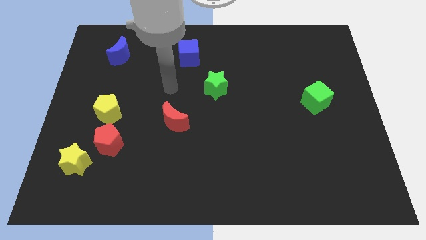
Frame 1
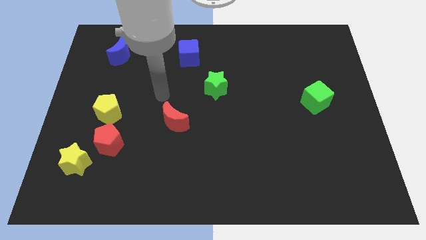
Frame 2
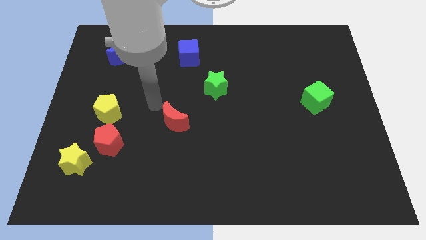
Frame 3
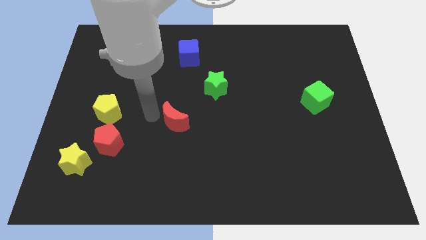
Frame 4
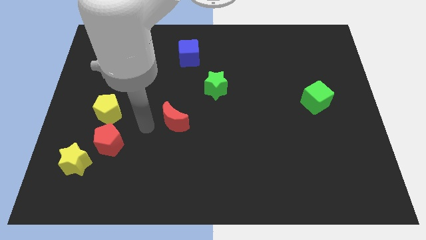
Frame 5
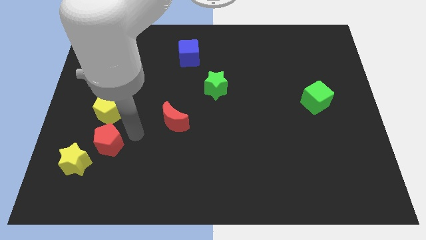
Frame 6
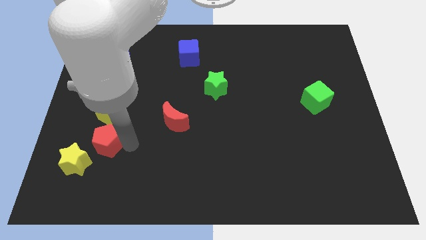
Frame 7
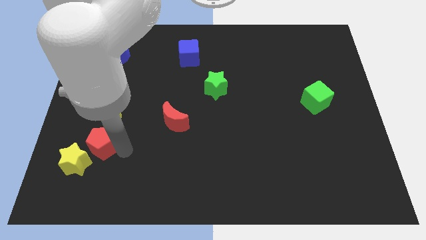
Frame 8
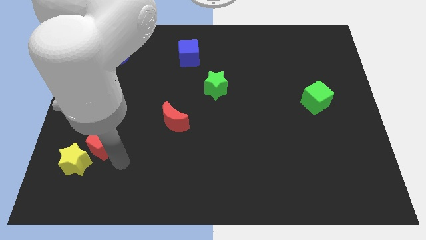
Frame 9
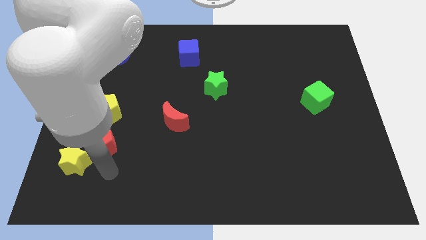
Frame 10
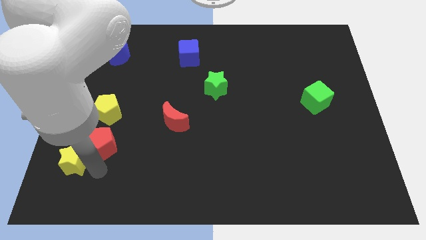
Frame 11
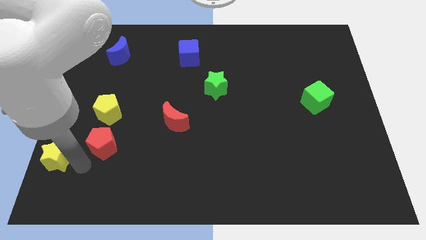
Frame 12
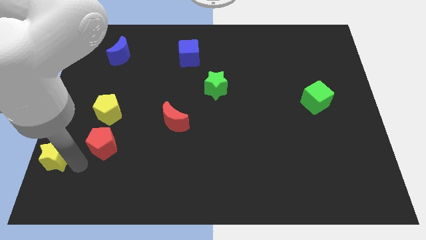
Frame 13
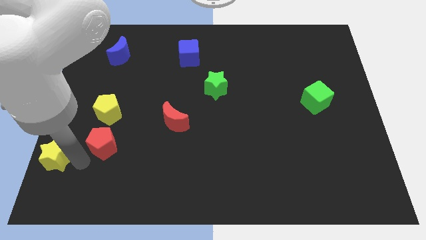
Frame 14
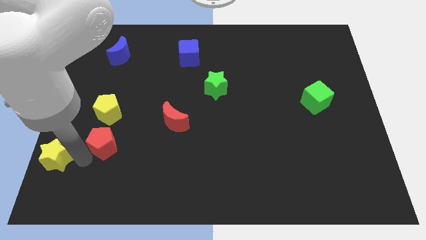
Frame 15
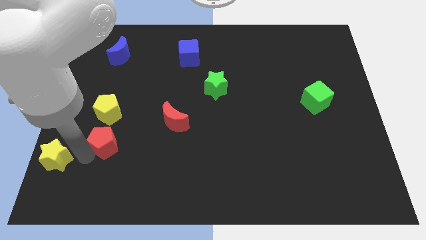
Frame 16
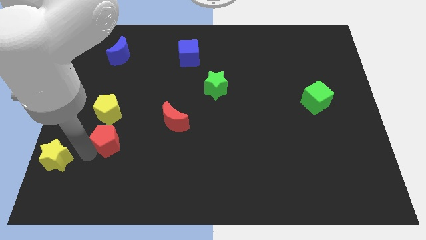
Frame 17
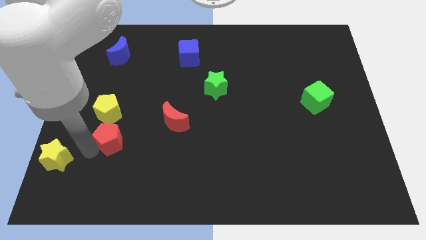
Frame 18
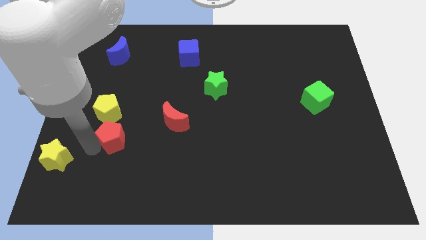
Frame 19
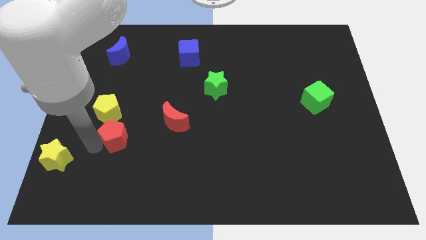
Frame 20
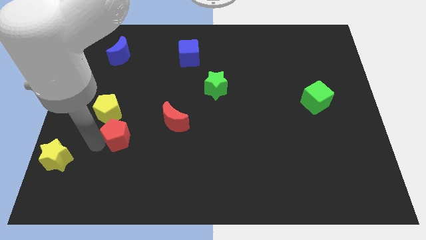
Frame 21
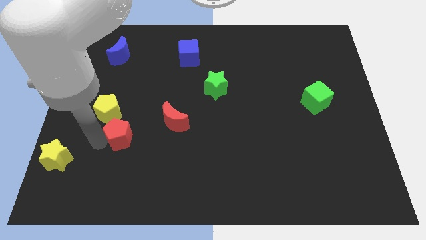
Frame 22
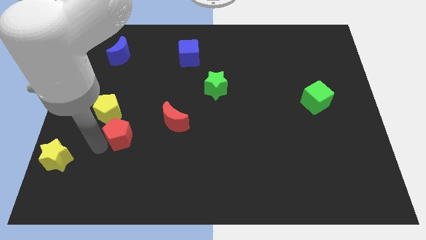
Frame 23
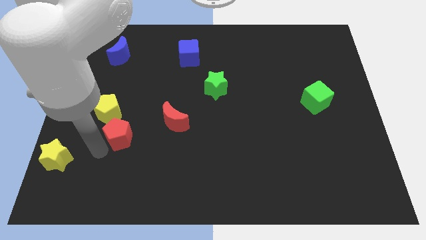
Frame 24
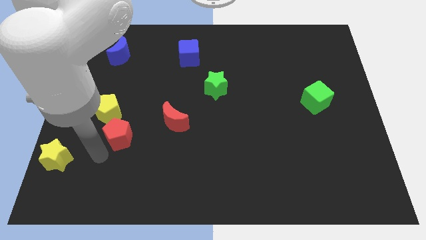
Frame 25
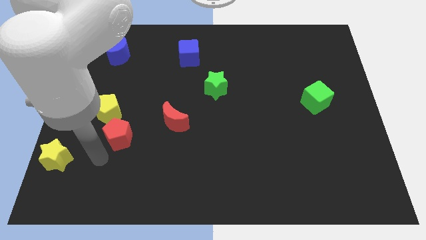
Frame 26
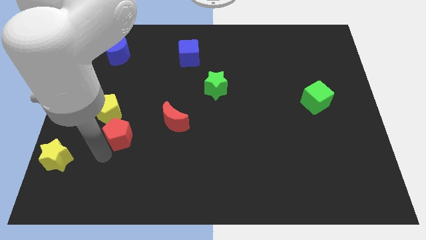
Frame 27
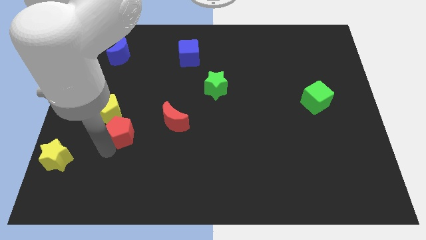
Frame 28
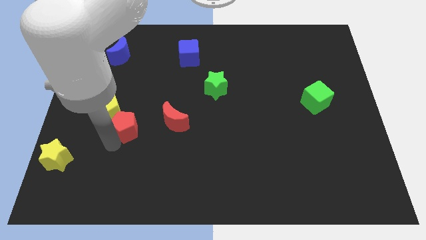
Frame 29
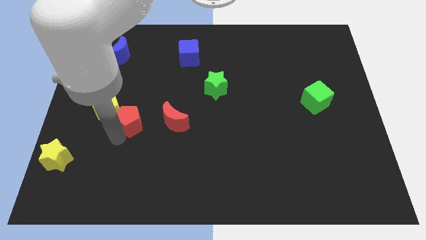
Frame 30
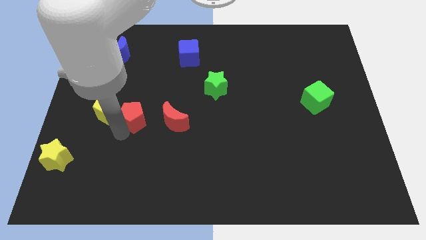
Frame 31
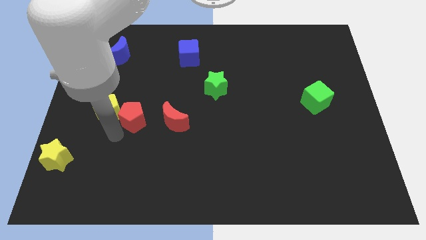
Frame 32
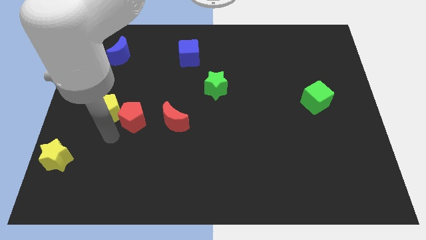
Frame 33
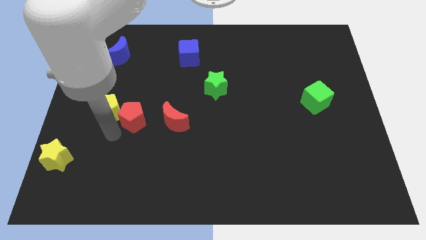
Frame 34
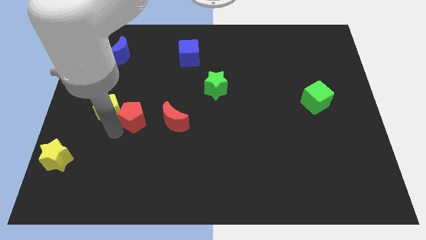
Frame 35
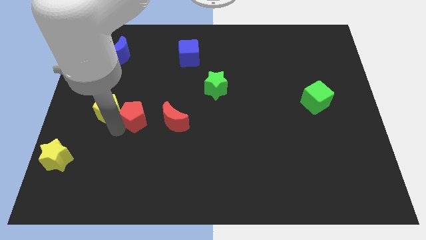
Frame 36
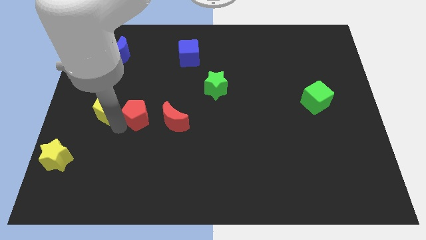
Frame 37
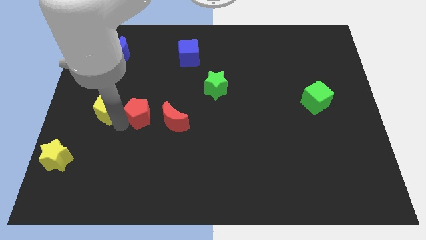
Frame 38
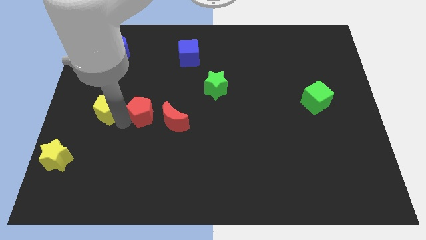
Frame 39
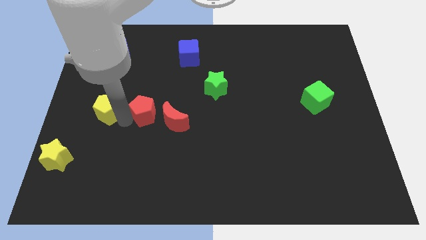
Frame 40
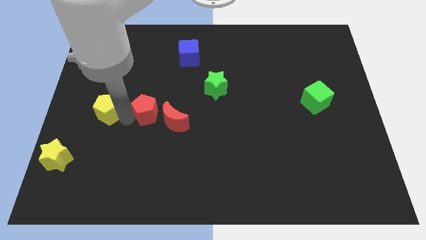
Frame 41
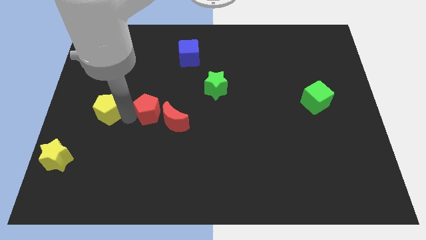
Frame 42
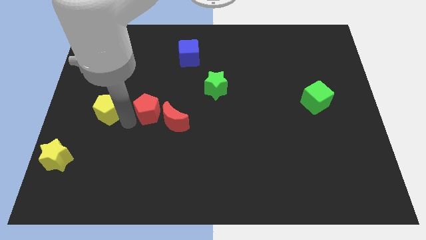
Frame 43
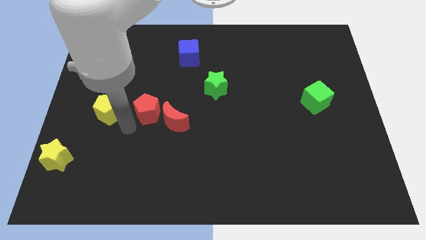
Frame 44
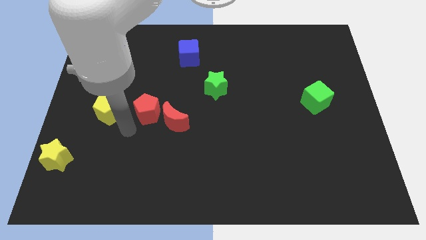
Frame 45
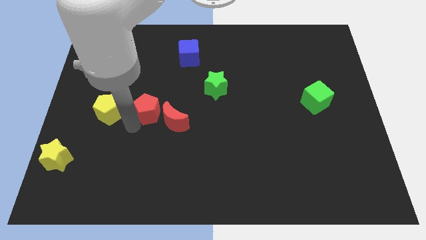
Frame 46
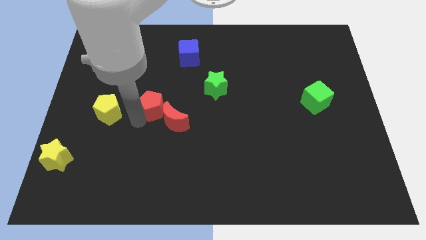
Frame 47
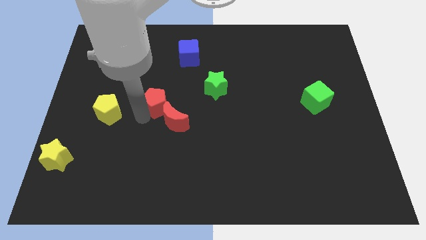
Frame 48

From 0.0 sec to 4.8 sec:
put the red pentagon to the top side of the red moon

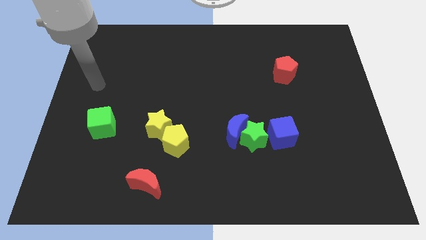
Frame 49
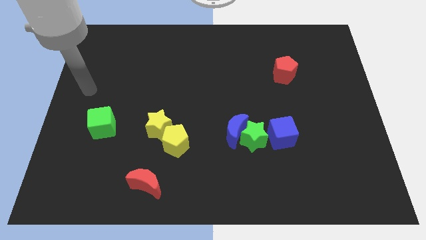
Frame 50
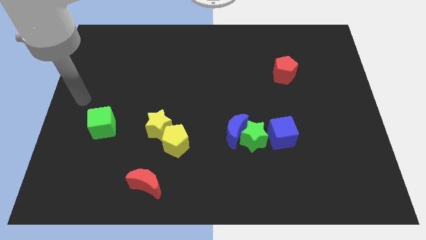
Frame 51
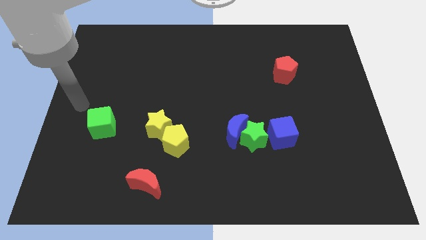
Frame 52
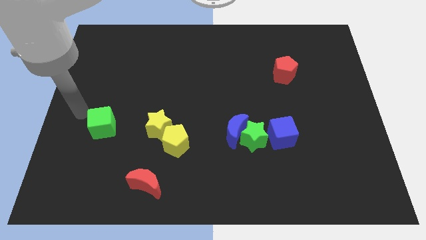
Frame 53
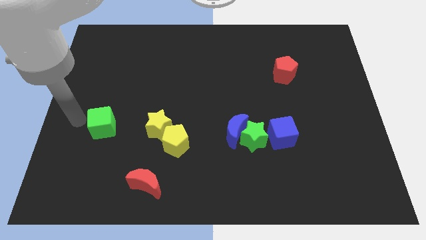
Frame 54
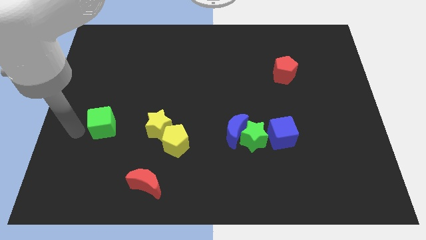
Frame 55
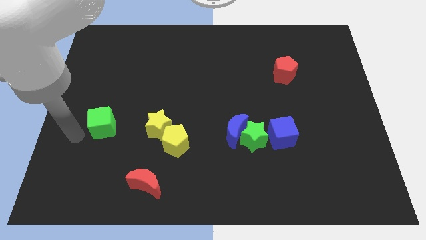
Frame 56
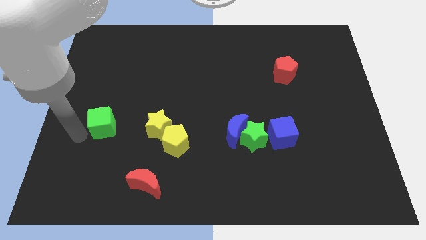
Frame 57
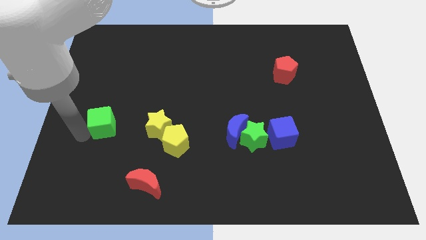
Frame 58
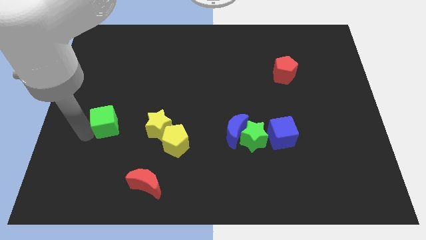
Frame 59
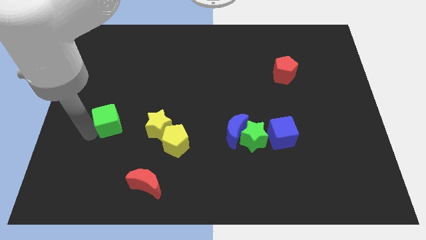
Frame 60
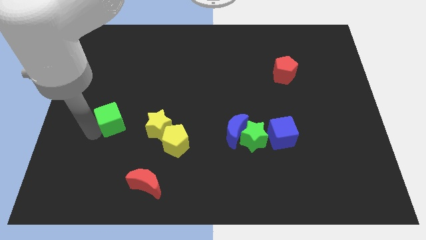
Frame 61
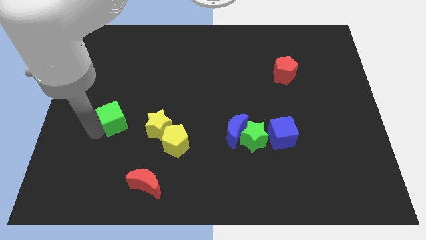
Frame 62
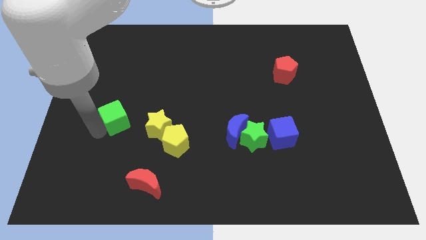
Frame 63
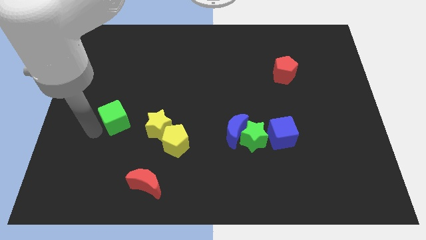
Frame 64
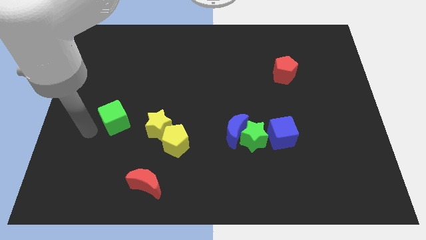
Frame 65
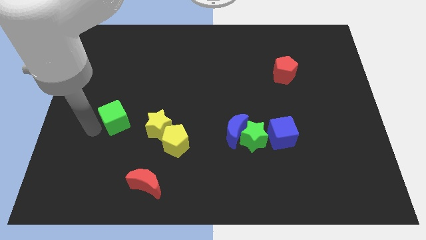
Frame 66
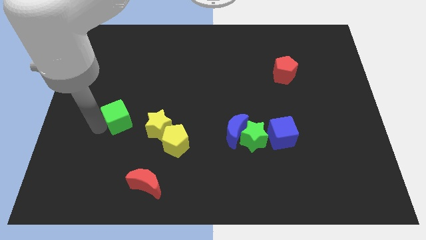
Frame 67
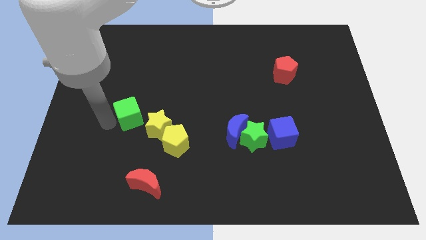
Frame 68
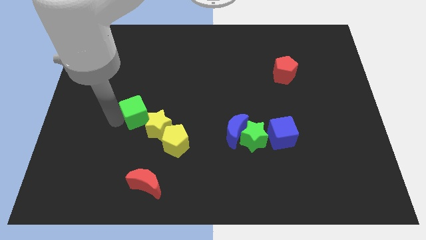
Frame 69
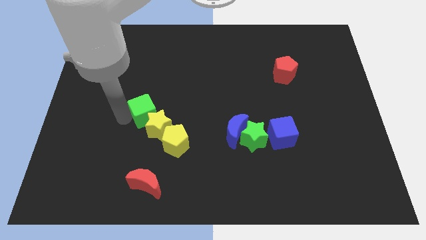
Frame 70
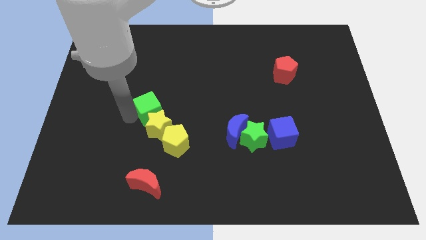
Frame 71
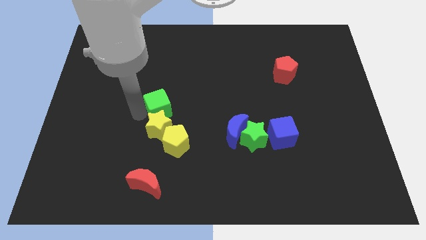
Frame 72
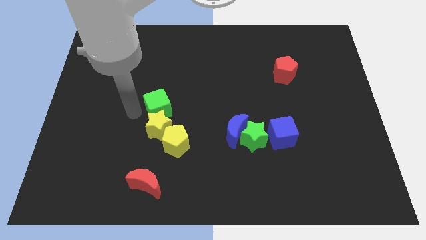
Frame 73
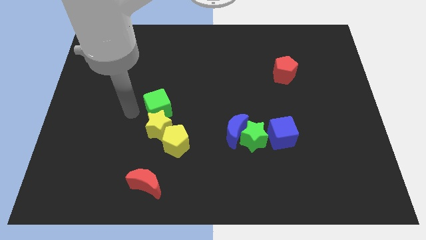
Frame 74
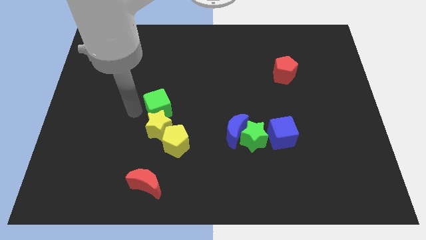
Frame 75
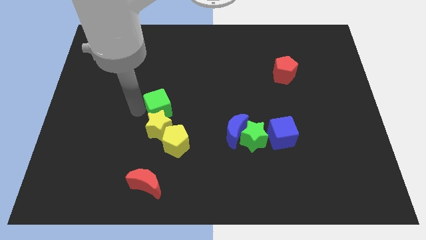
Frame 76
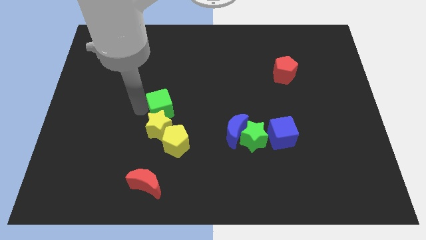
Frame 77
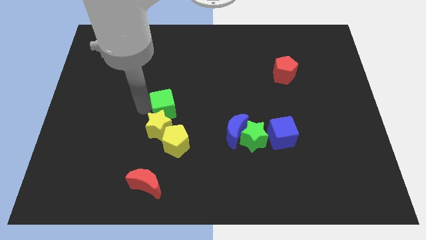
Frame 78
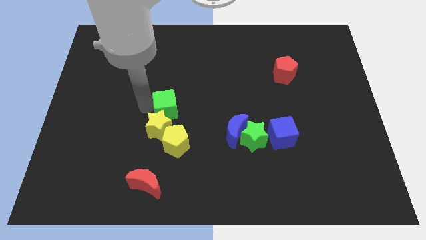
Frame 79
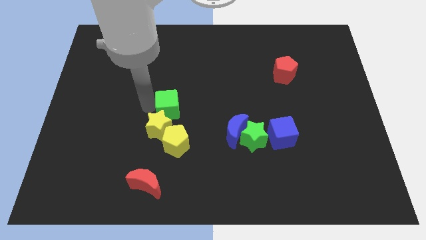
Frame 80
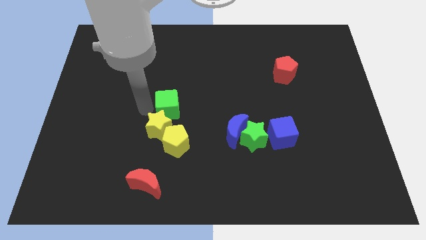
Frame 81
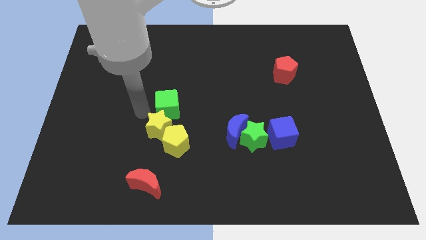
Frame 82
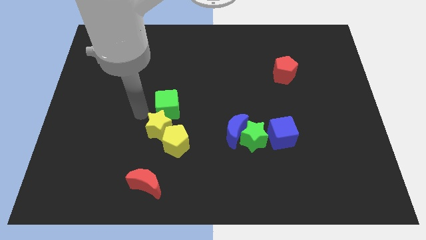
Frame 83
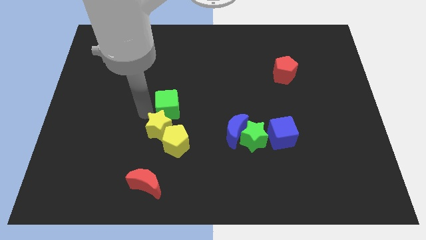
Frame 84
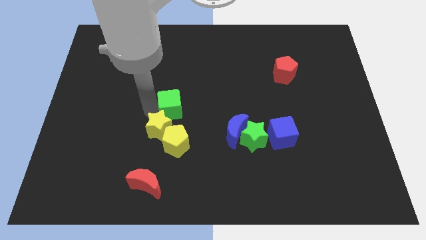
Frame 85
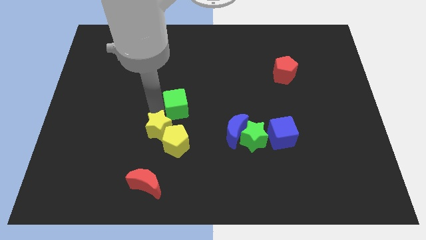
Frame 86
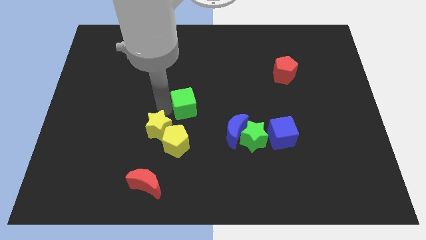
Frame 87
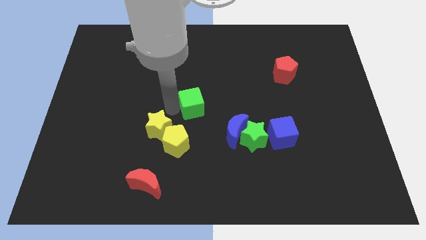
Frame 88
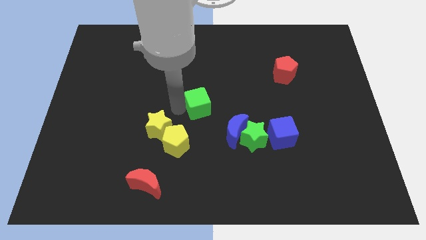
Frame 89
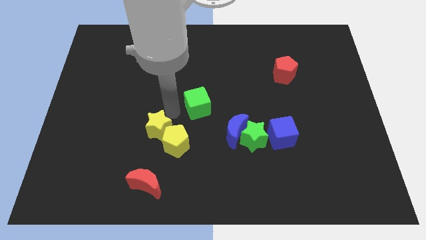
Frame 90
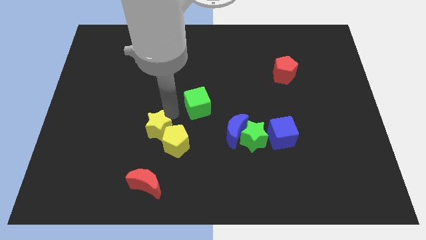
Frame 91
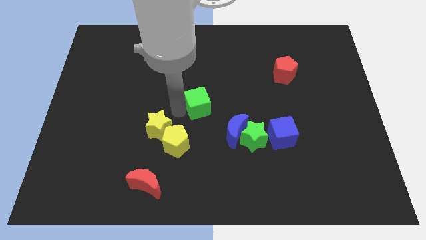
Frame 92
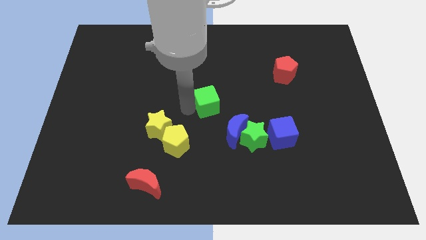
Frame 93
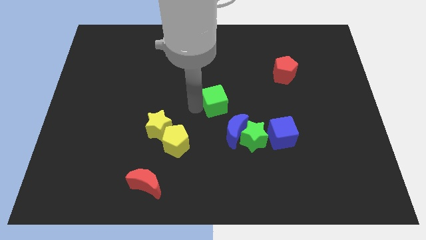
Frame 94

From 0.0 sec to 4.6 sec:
put the green cube to the top of the blue moon
